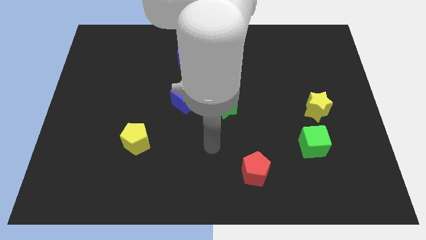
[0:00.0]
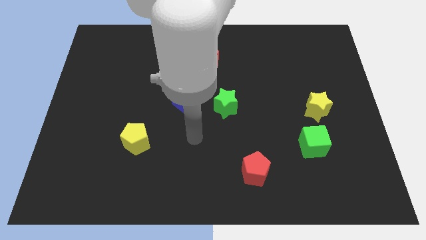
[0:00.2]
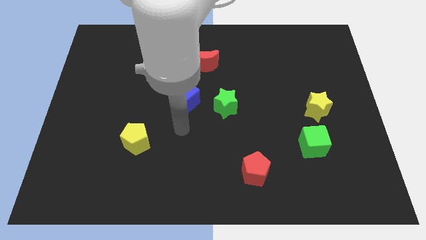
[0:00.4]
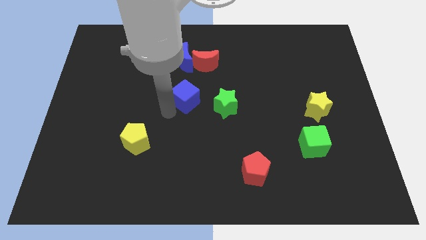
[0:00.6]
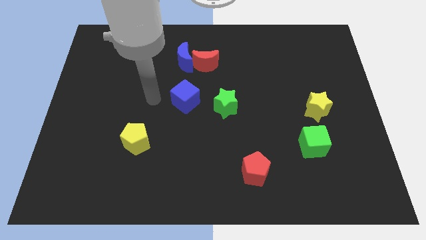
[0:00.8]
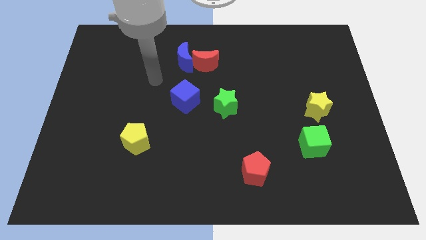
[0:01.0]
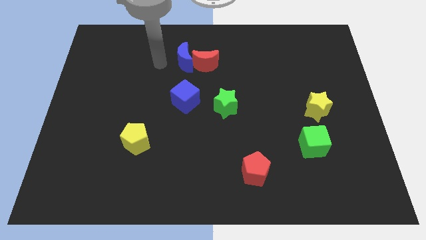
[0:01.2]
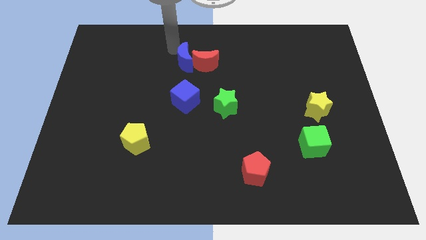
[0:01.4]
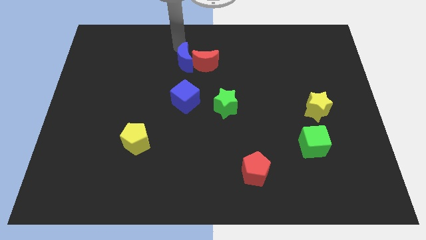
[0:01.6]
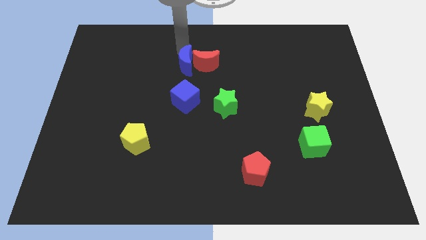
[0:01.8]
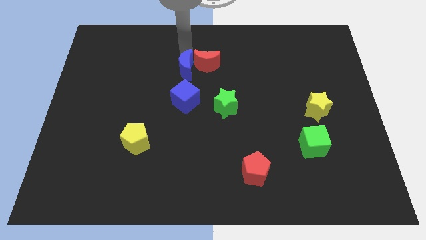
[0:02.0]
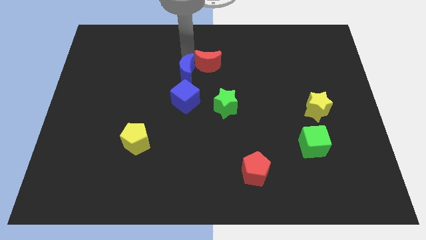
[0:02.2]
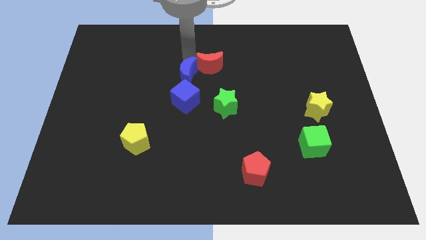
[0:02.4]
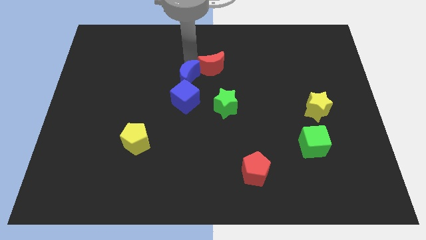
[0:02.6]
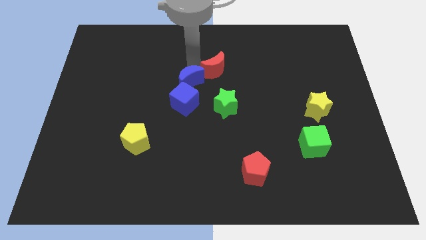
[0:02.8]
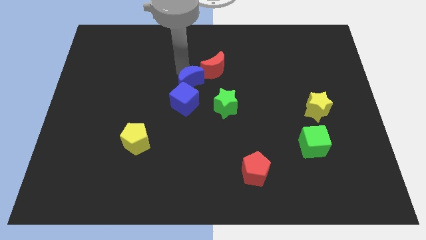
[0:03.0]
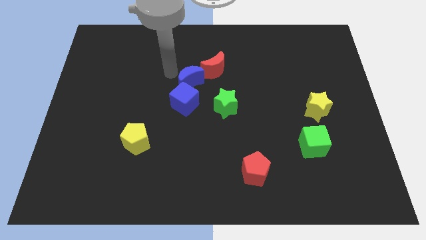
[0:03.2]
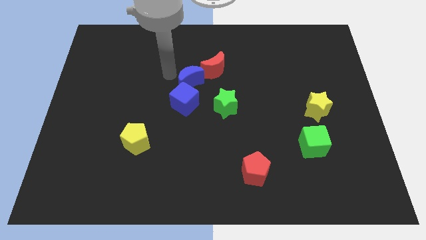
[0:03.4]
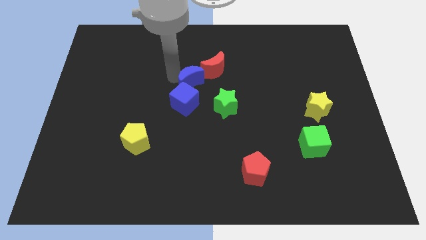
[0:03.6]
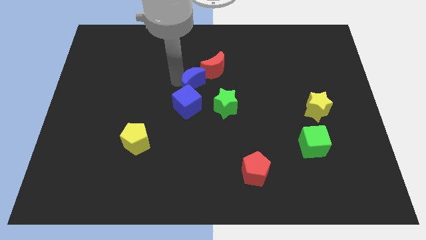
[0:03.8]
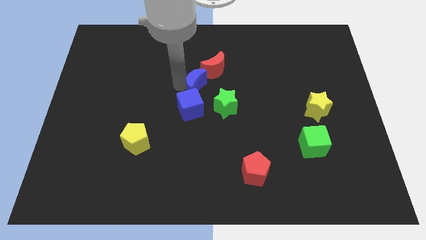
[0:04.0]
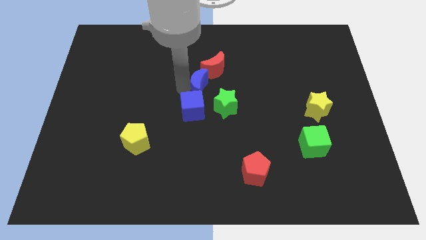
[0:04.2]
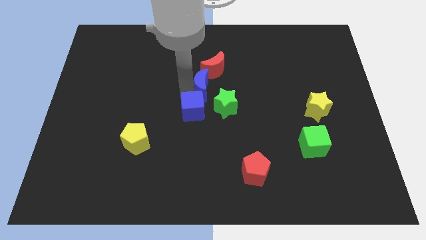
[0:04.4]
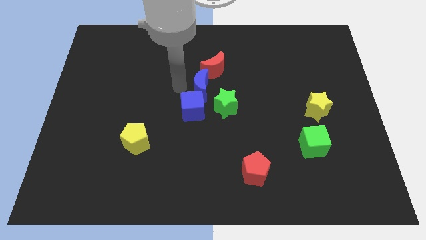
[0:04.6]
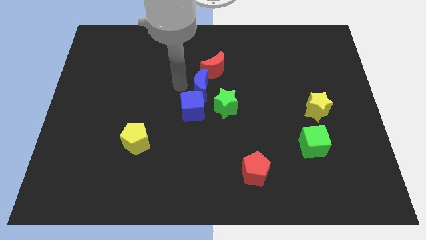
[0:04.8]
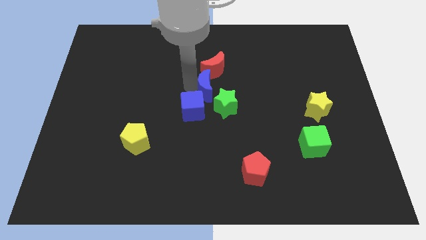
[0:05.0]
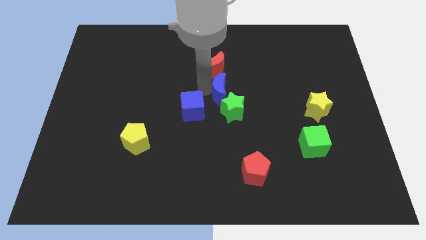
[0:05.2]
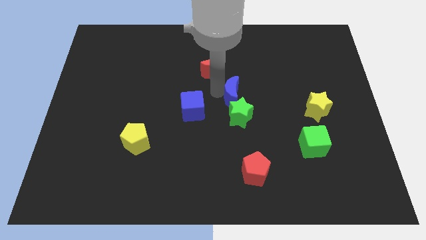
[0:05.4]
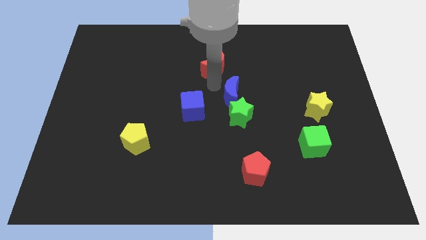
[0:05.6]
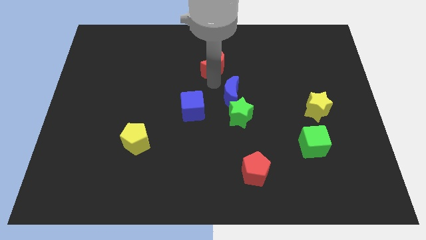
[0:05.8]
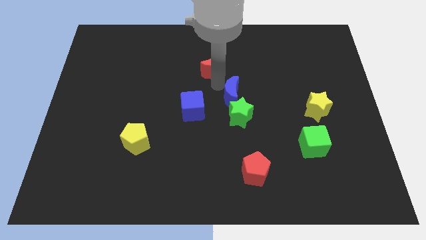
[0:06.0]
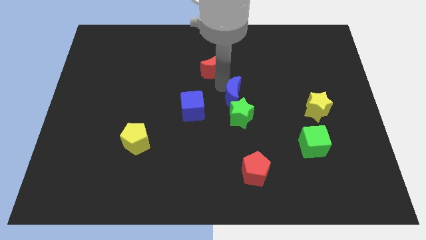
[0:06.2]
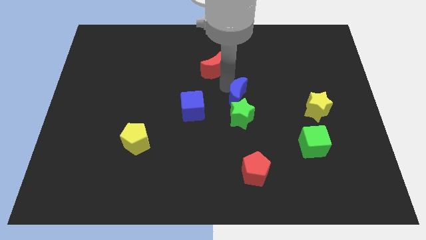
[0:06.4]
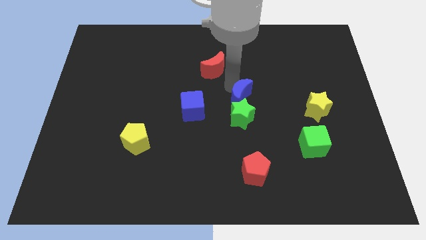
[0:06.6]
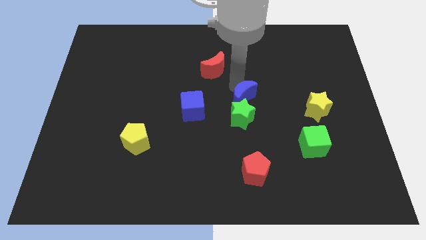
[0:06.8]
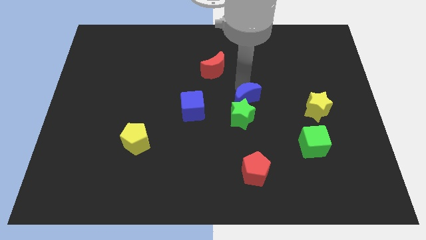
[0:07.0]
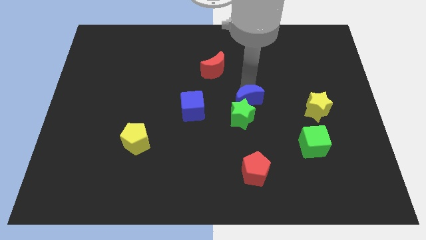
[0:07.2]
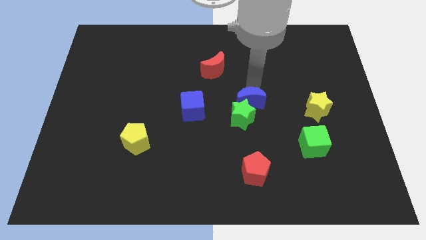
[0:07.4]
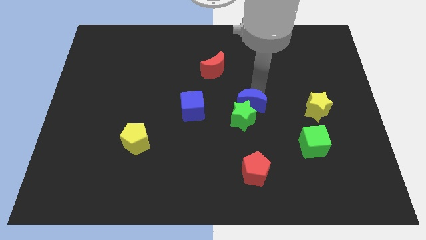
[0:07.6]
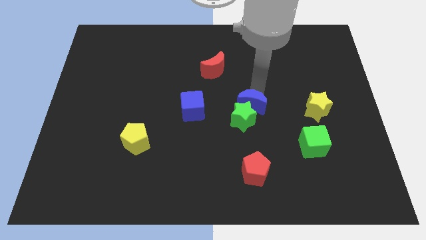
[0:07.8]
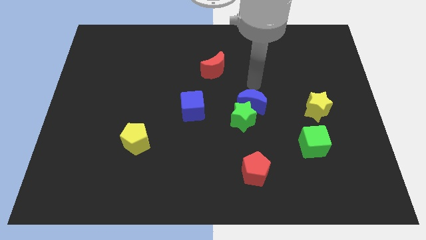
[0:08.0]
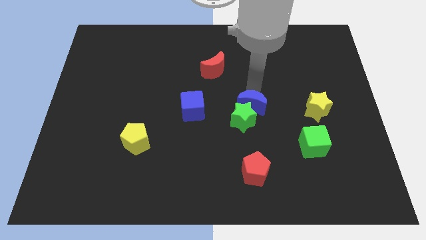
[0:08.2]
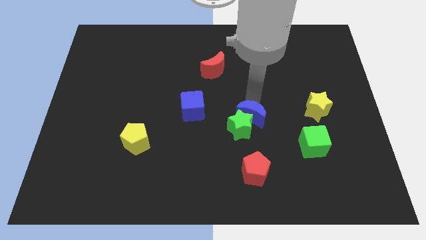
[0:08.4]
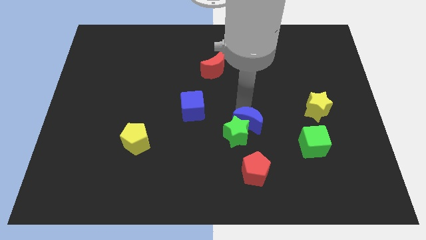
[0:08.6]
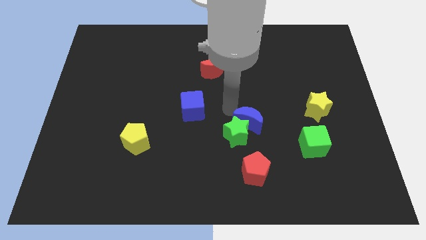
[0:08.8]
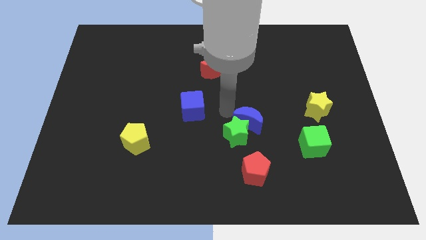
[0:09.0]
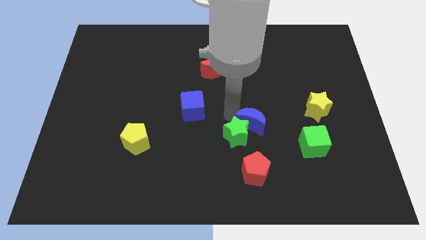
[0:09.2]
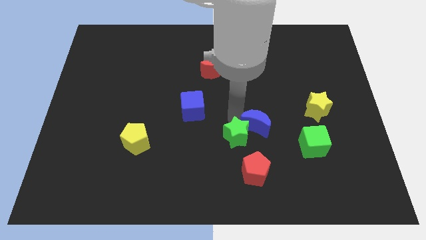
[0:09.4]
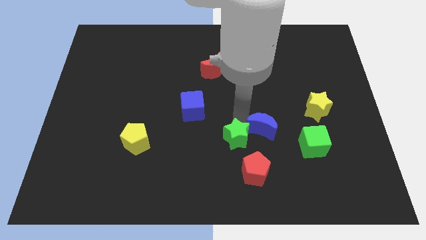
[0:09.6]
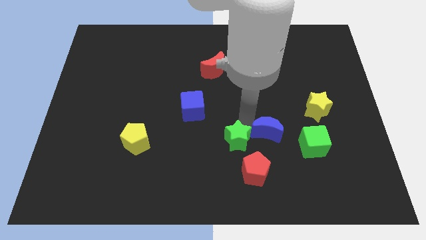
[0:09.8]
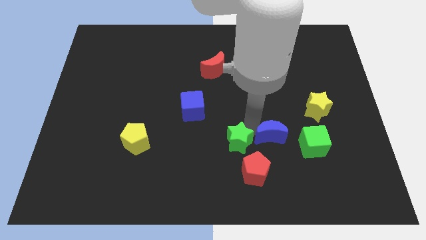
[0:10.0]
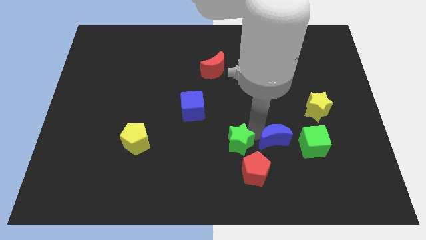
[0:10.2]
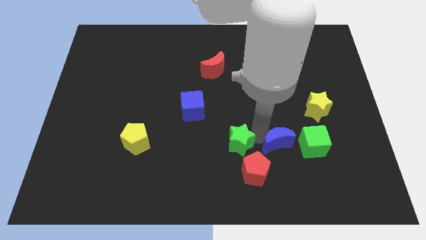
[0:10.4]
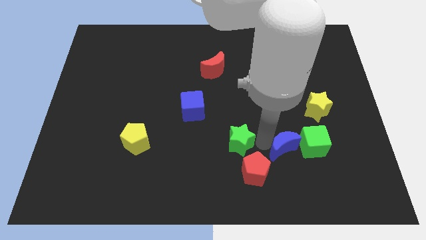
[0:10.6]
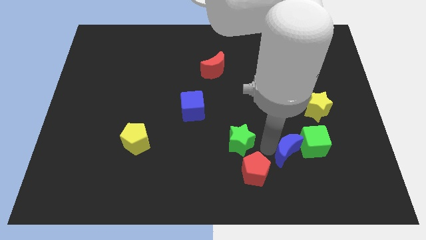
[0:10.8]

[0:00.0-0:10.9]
push the blue moon right of the red pentagon
